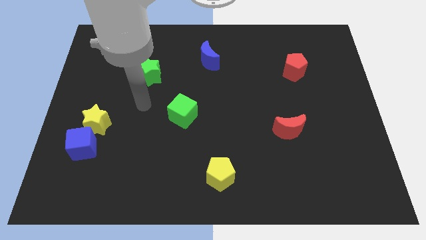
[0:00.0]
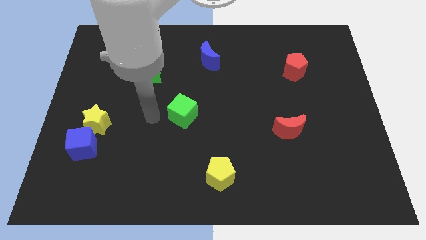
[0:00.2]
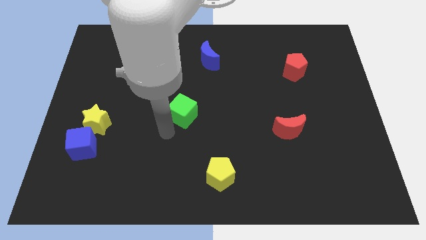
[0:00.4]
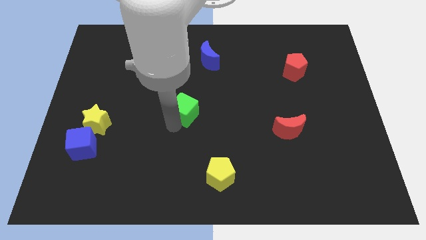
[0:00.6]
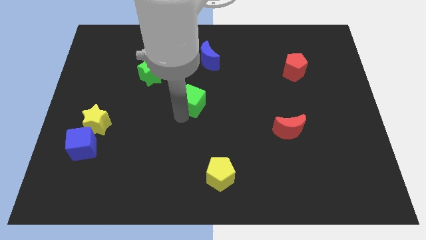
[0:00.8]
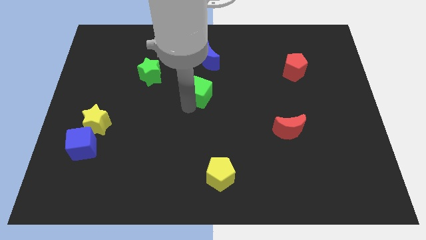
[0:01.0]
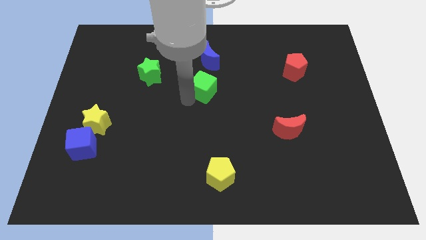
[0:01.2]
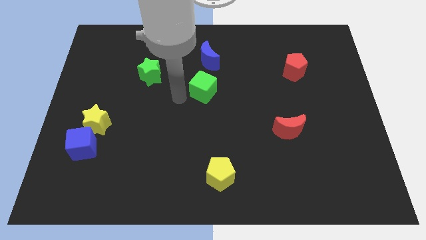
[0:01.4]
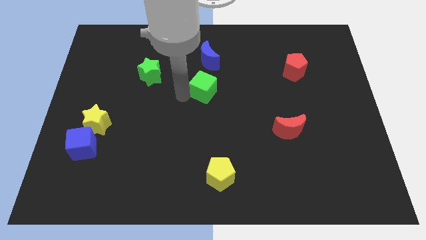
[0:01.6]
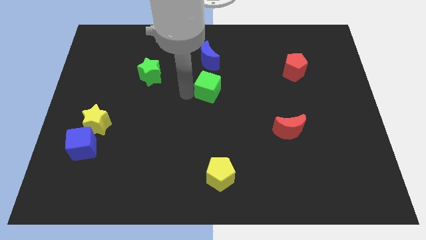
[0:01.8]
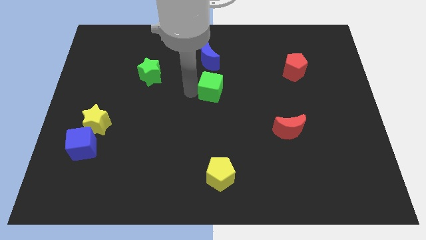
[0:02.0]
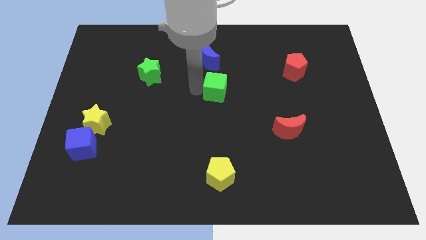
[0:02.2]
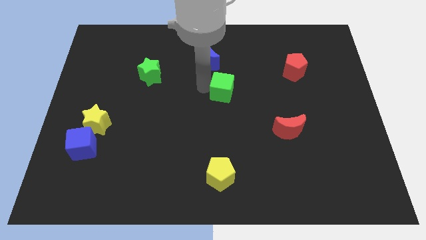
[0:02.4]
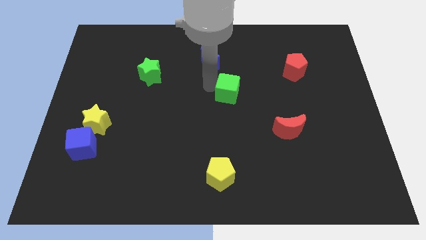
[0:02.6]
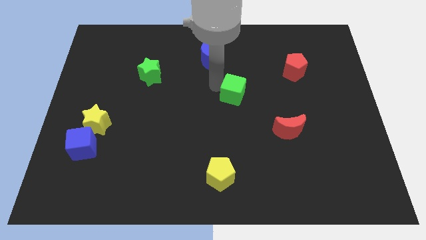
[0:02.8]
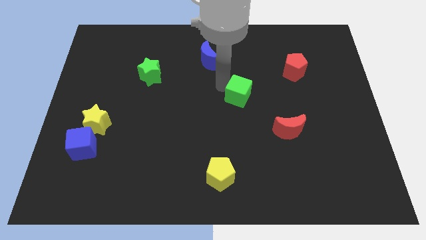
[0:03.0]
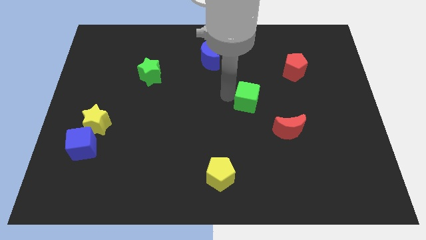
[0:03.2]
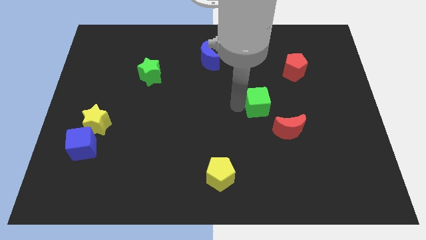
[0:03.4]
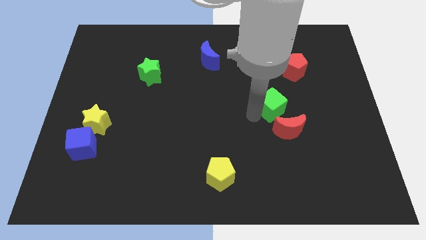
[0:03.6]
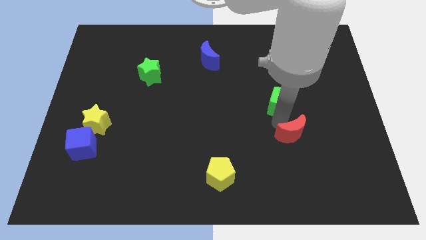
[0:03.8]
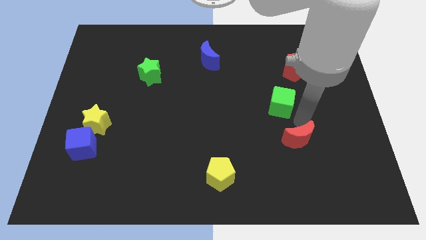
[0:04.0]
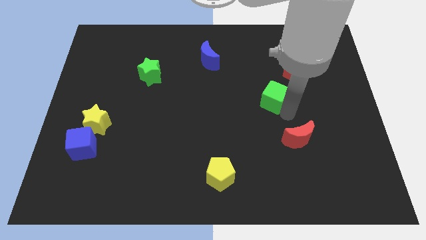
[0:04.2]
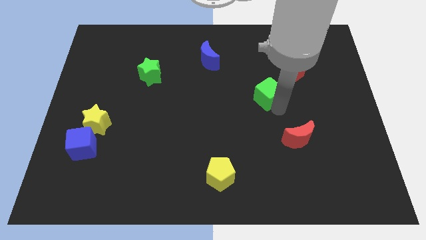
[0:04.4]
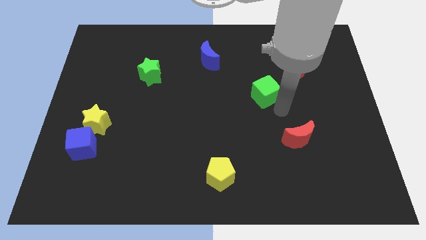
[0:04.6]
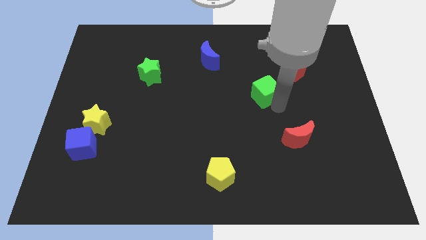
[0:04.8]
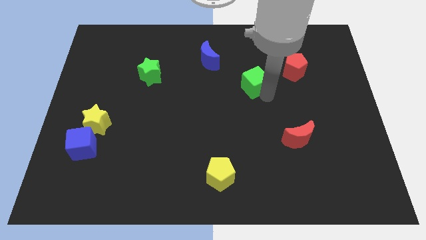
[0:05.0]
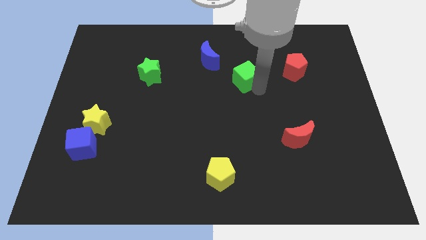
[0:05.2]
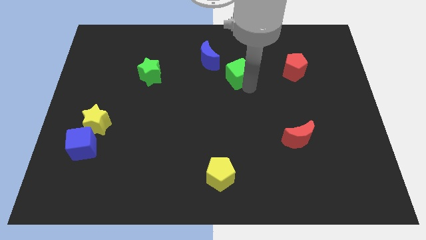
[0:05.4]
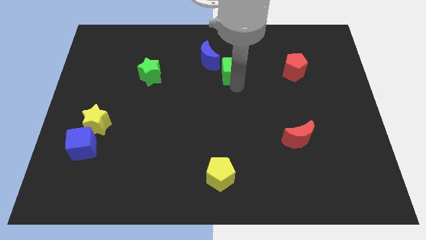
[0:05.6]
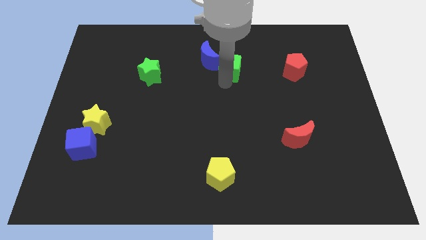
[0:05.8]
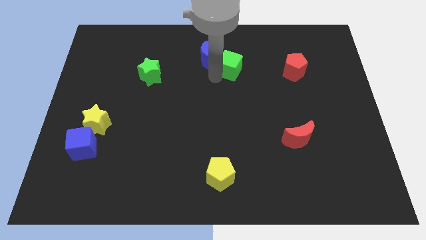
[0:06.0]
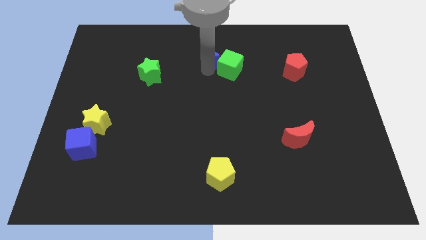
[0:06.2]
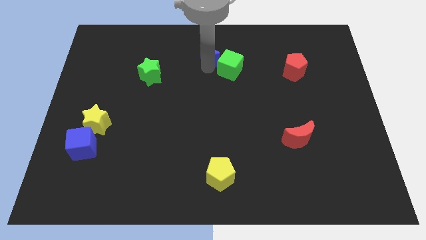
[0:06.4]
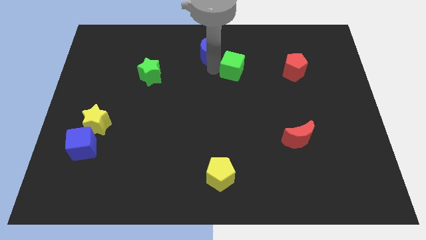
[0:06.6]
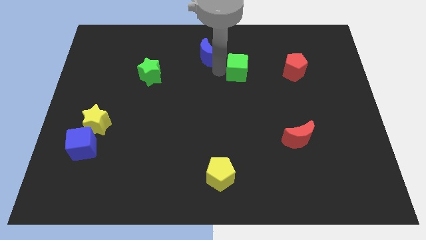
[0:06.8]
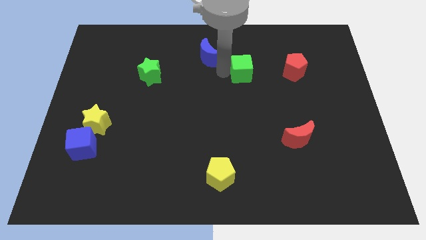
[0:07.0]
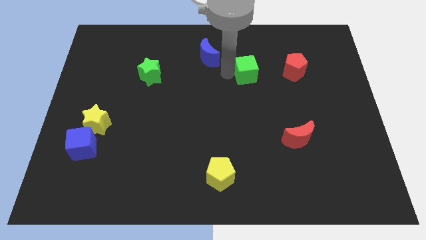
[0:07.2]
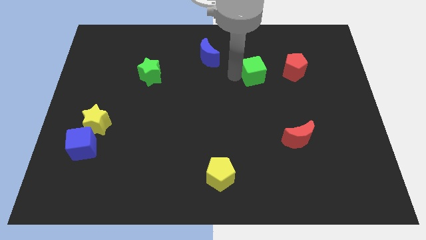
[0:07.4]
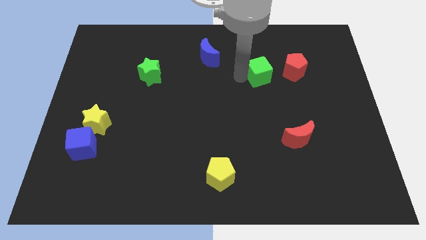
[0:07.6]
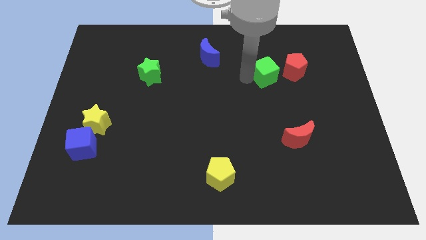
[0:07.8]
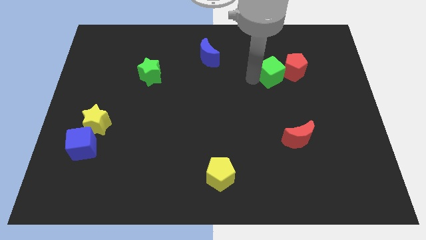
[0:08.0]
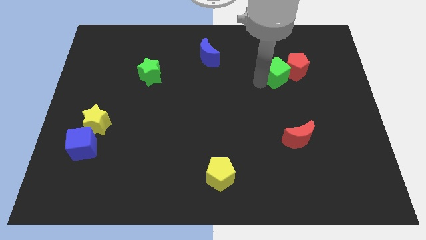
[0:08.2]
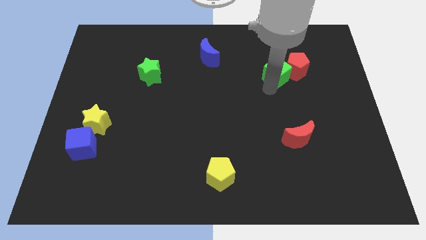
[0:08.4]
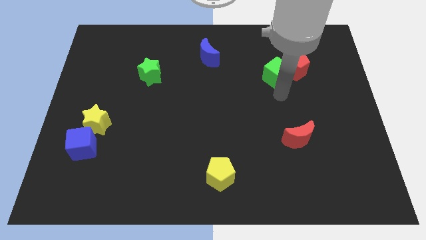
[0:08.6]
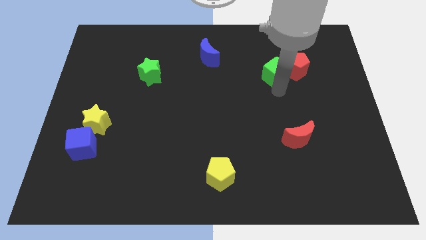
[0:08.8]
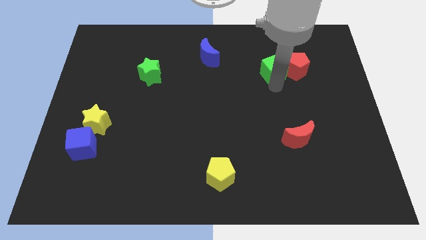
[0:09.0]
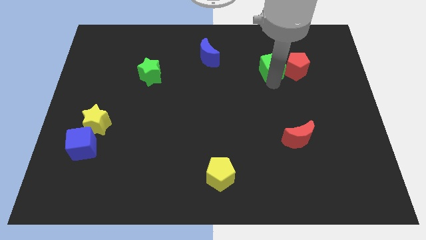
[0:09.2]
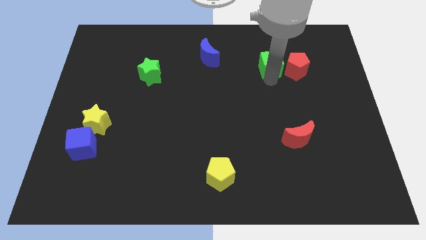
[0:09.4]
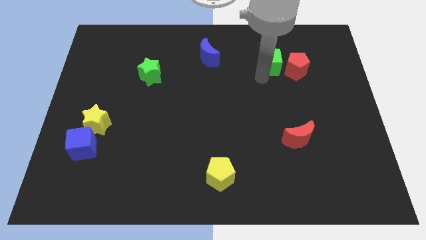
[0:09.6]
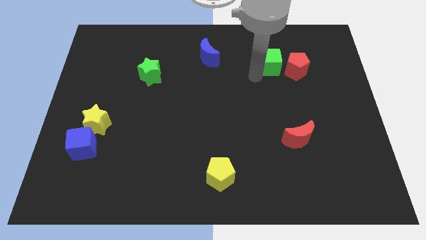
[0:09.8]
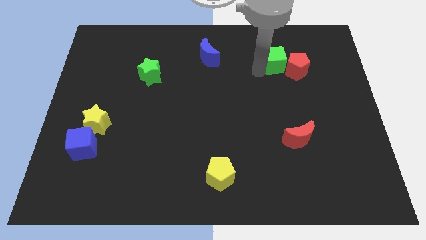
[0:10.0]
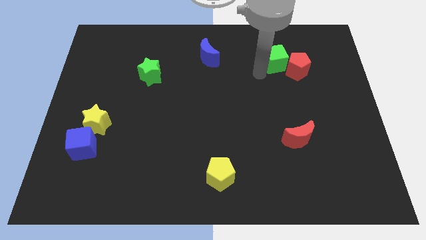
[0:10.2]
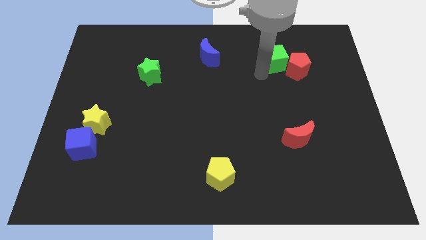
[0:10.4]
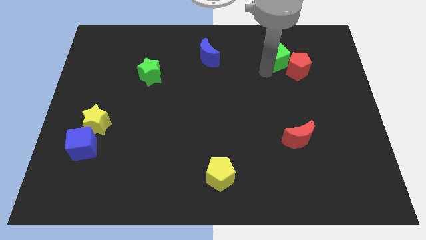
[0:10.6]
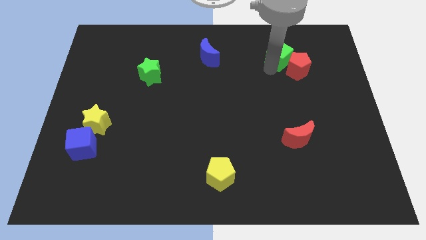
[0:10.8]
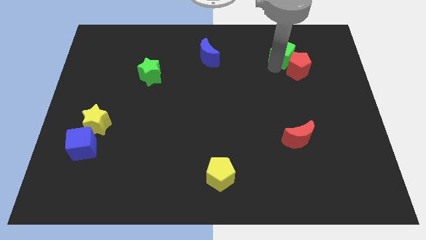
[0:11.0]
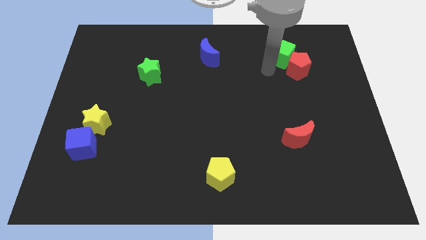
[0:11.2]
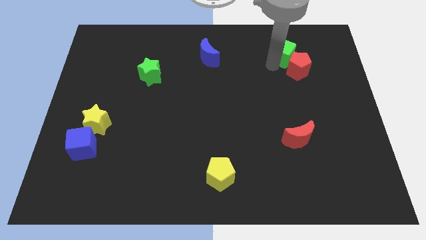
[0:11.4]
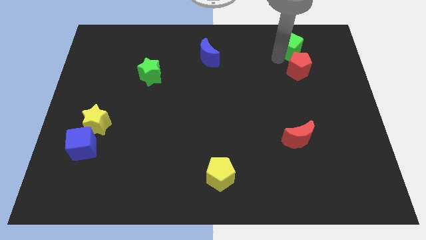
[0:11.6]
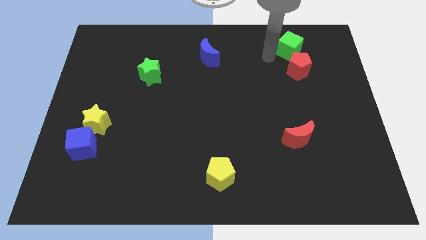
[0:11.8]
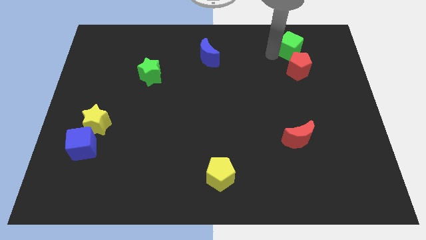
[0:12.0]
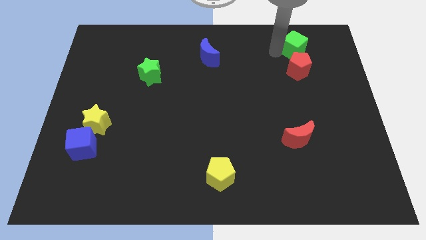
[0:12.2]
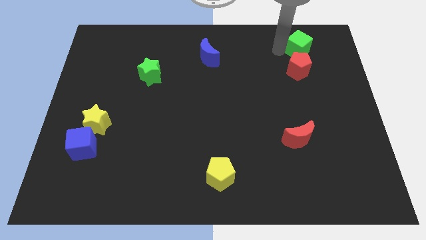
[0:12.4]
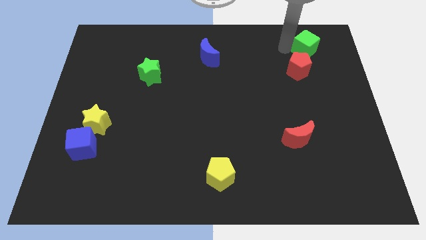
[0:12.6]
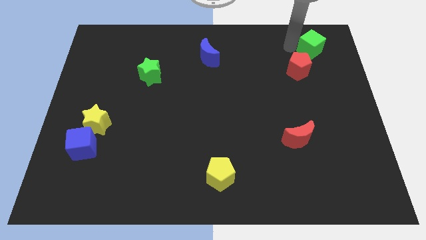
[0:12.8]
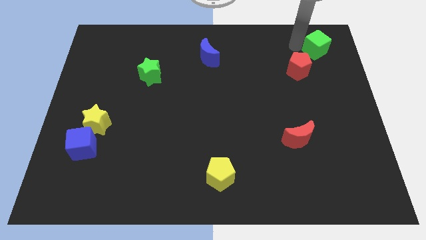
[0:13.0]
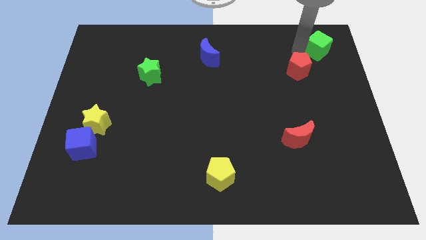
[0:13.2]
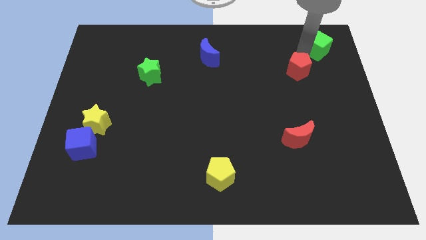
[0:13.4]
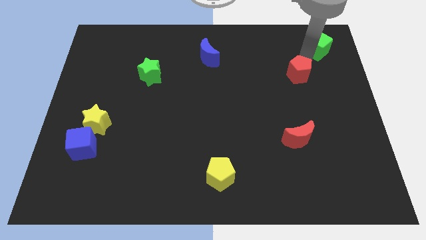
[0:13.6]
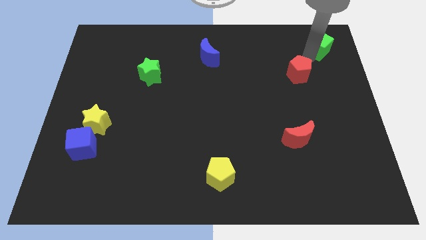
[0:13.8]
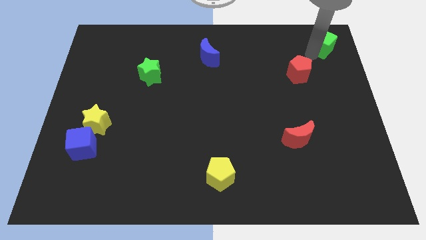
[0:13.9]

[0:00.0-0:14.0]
move the green cube to the top right

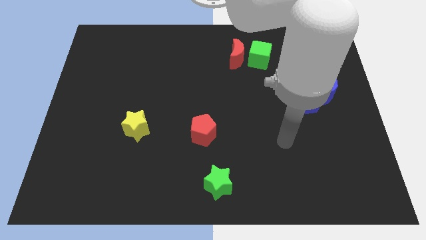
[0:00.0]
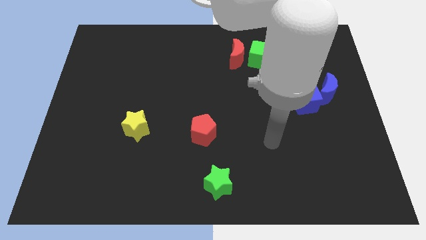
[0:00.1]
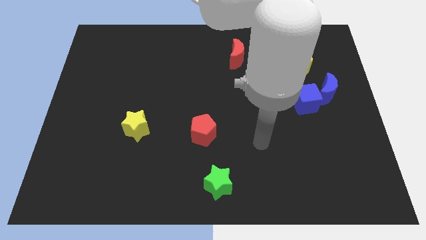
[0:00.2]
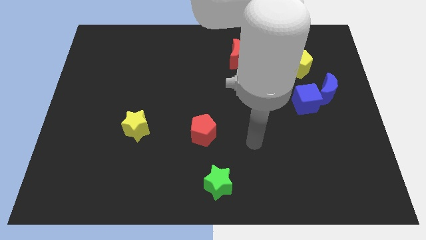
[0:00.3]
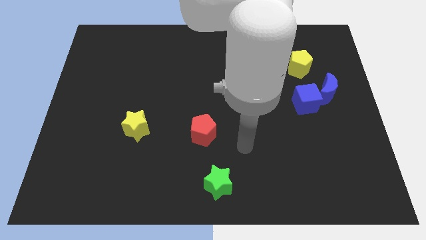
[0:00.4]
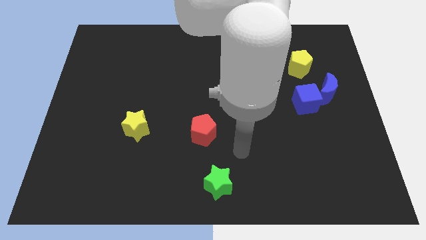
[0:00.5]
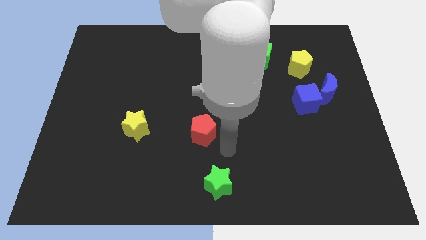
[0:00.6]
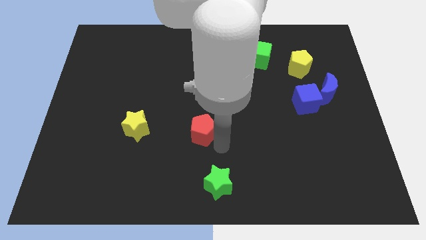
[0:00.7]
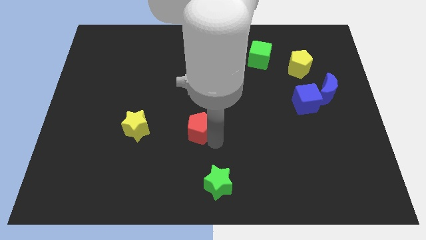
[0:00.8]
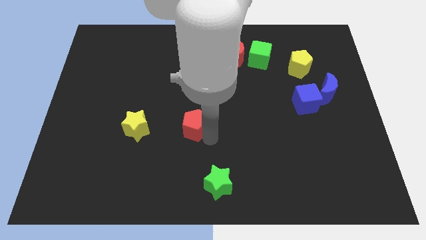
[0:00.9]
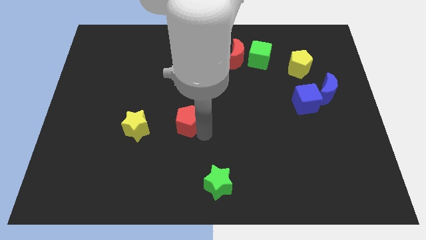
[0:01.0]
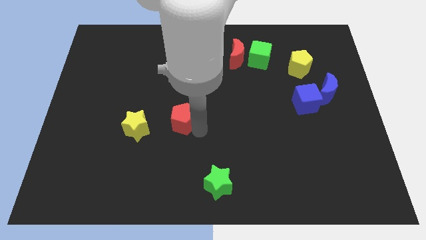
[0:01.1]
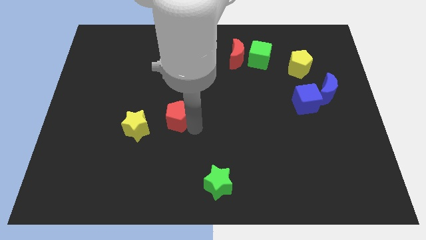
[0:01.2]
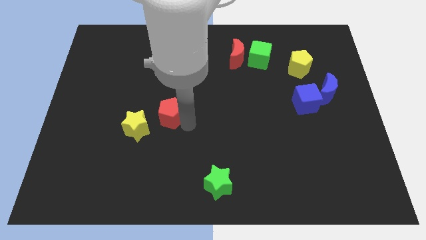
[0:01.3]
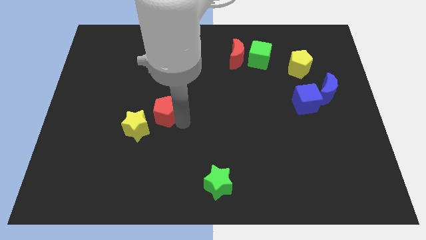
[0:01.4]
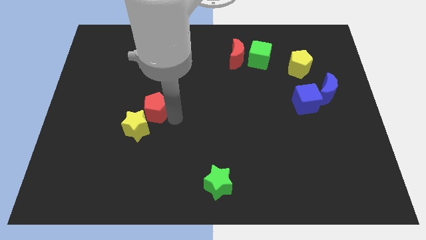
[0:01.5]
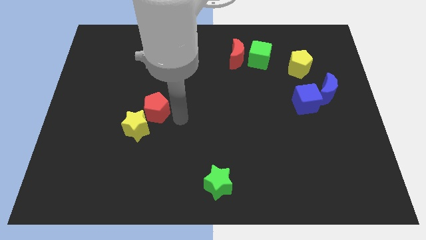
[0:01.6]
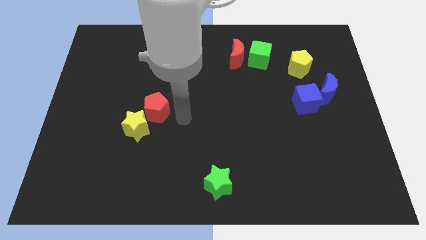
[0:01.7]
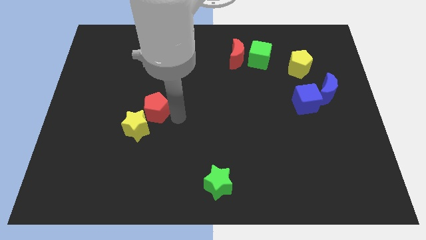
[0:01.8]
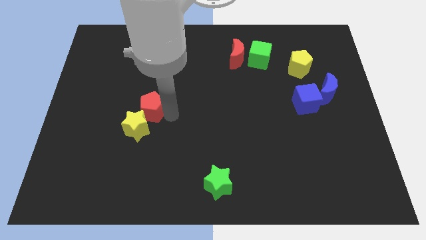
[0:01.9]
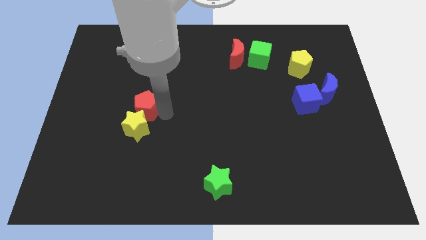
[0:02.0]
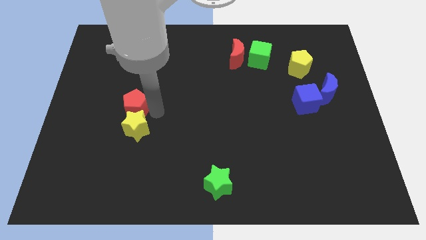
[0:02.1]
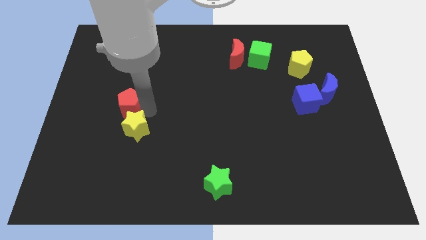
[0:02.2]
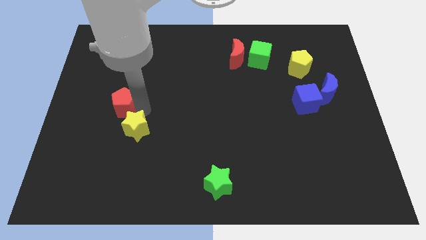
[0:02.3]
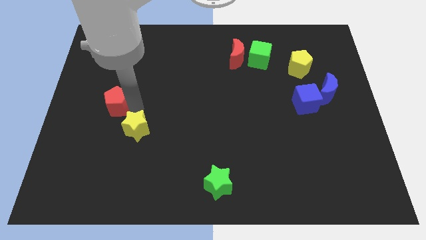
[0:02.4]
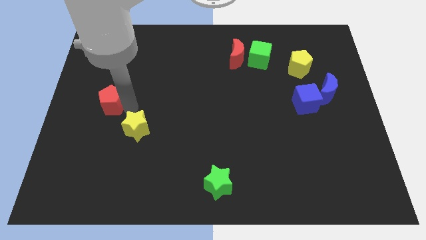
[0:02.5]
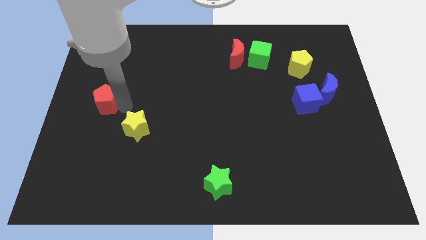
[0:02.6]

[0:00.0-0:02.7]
move the red pentagon to the center left
